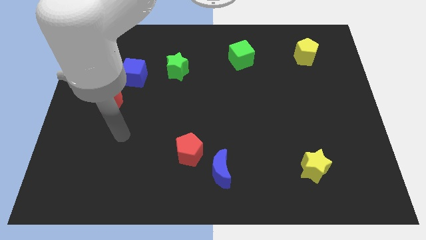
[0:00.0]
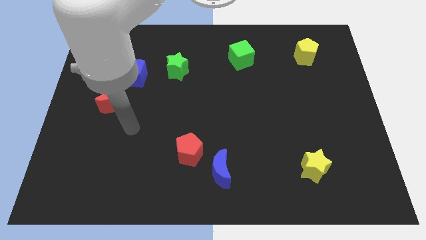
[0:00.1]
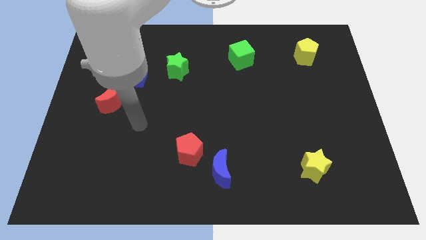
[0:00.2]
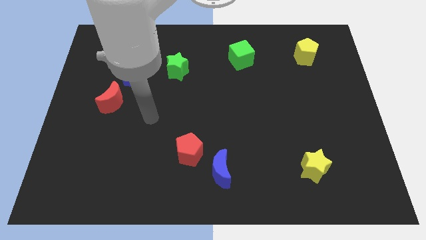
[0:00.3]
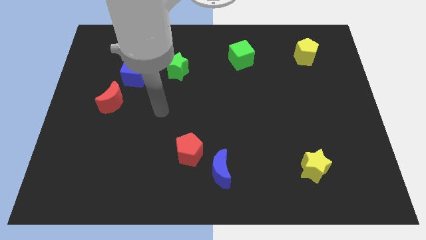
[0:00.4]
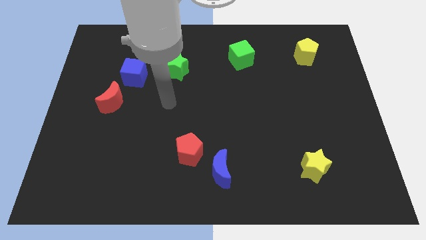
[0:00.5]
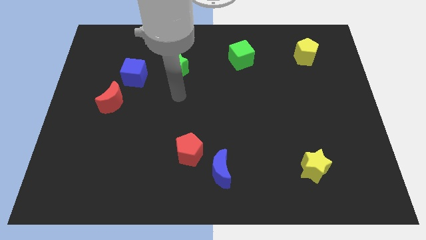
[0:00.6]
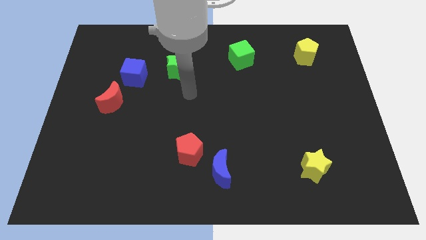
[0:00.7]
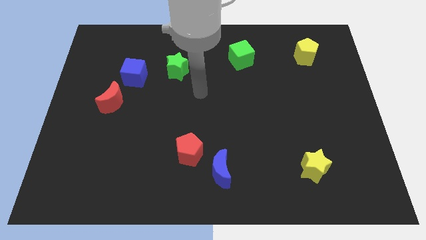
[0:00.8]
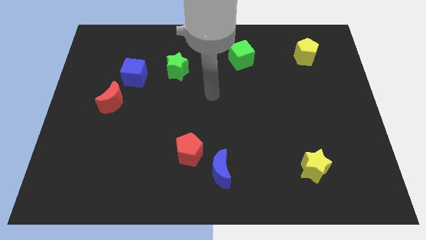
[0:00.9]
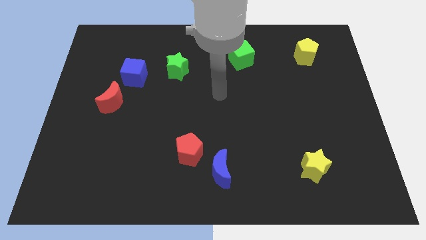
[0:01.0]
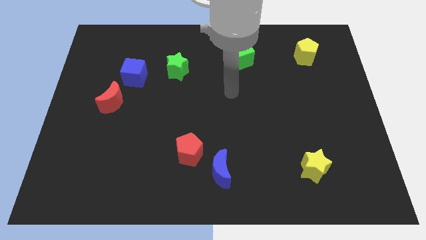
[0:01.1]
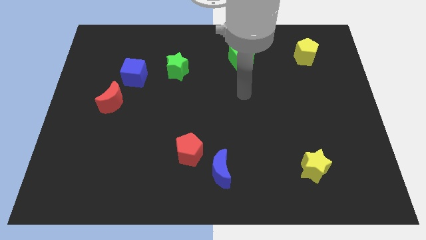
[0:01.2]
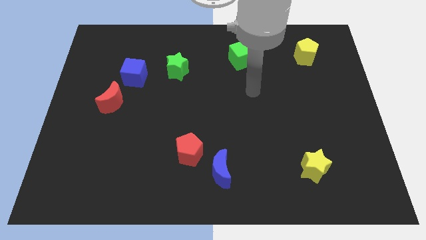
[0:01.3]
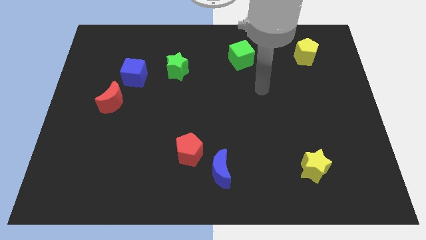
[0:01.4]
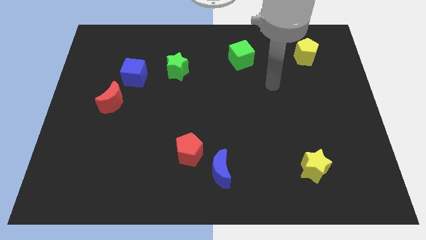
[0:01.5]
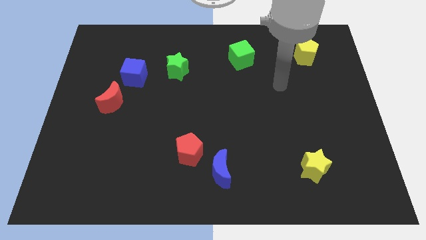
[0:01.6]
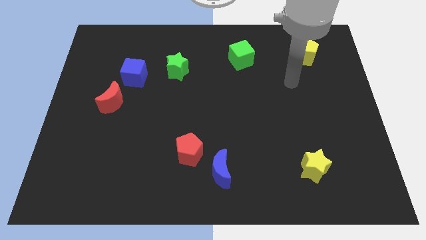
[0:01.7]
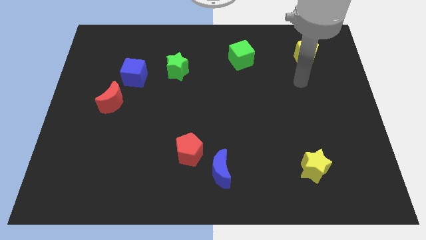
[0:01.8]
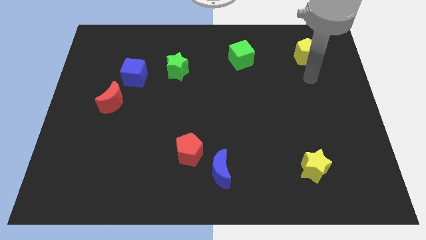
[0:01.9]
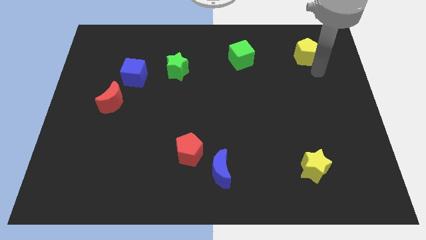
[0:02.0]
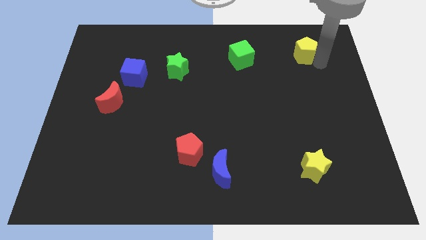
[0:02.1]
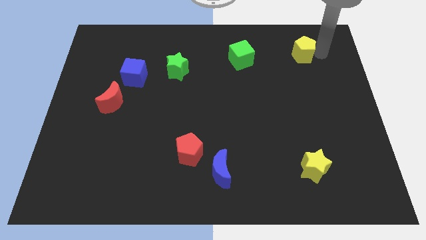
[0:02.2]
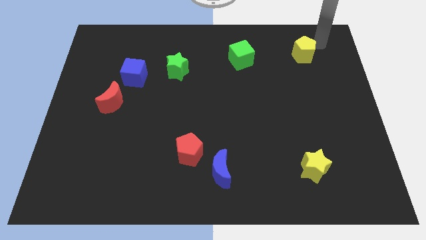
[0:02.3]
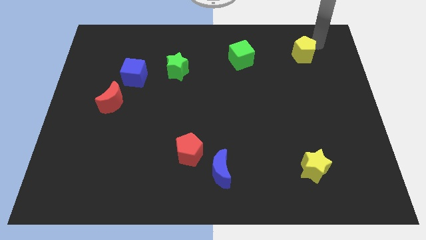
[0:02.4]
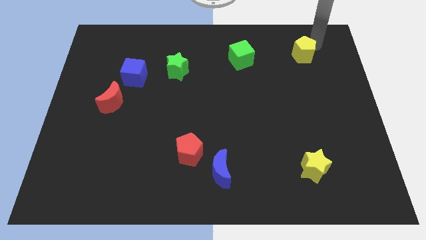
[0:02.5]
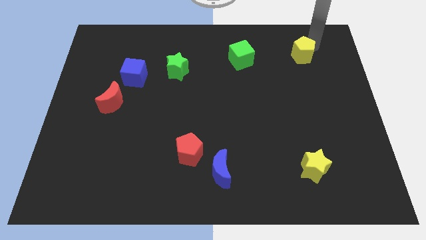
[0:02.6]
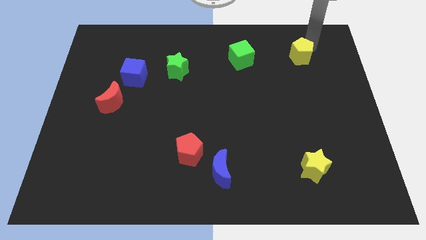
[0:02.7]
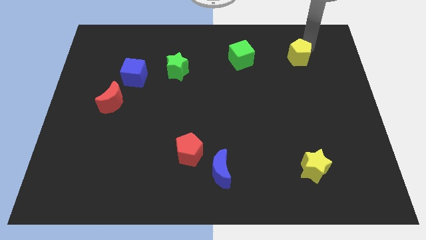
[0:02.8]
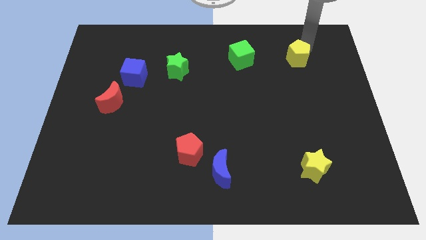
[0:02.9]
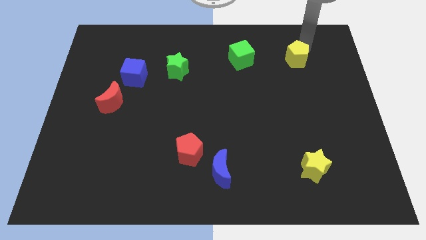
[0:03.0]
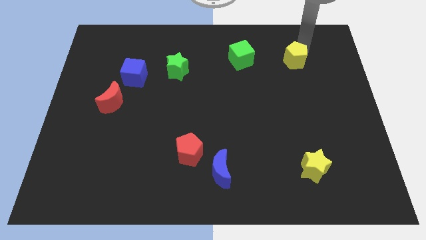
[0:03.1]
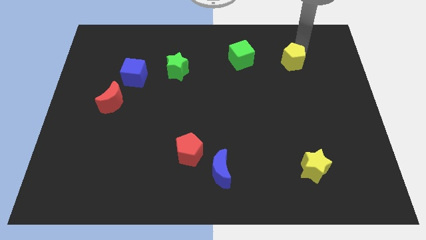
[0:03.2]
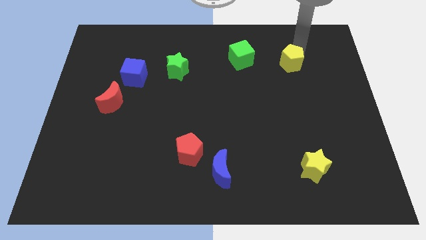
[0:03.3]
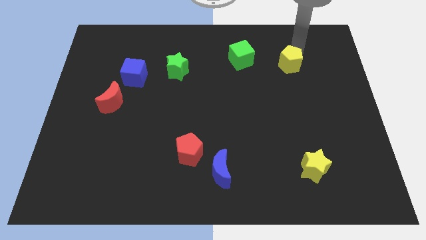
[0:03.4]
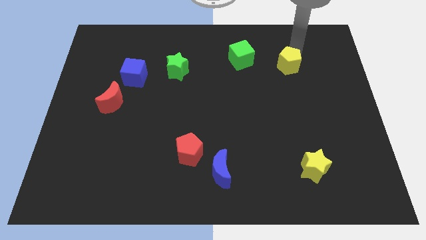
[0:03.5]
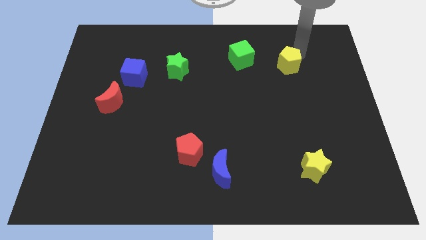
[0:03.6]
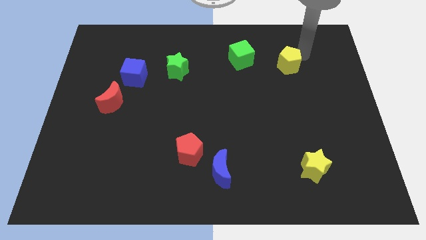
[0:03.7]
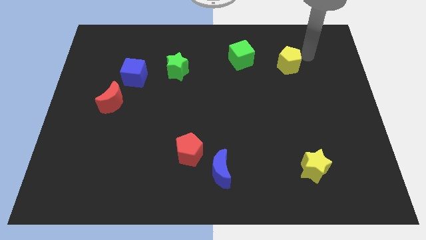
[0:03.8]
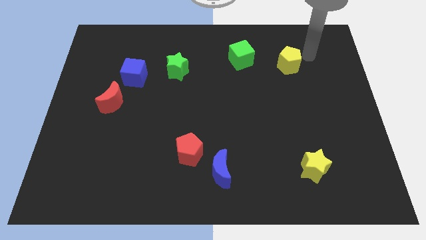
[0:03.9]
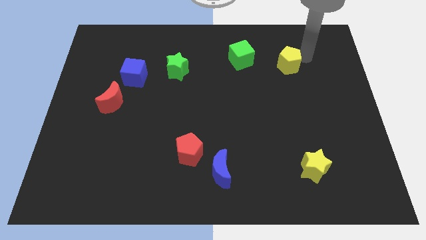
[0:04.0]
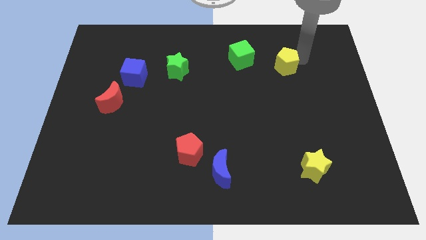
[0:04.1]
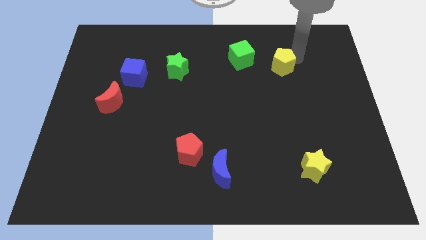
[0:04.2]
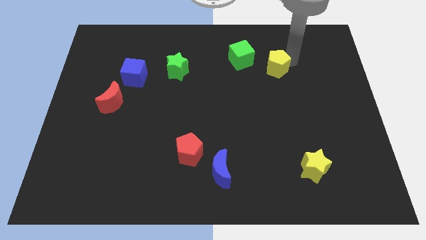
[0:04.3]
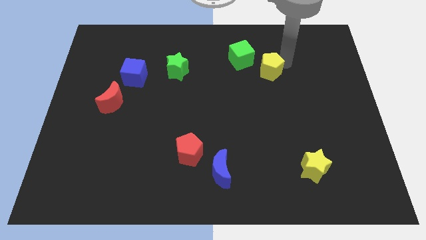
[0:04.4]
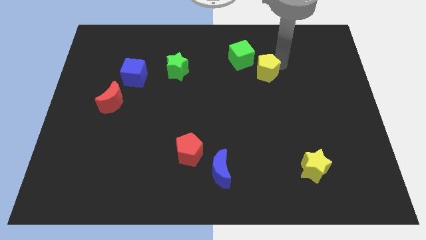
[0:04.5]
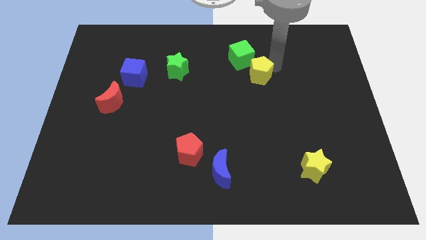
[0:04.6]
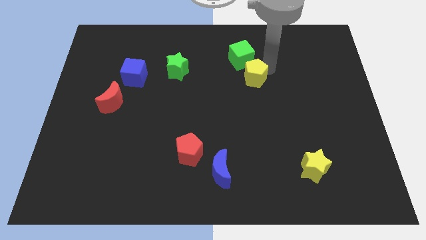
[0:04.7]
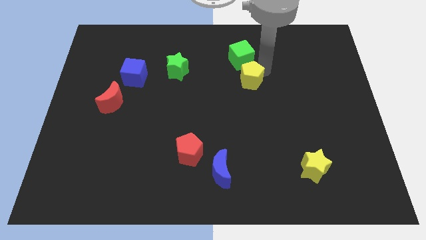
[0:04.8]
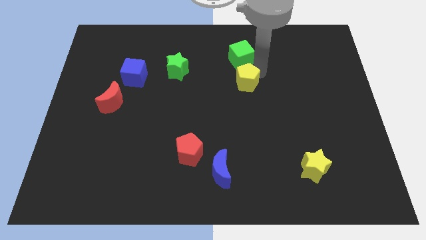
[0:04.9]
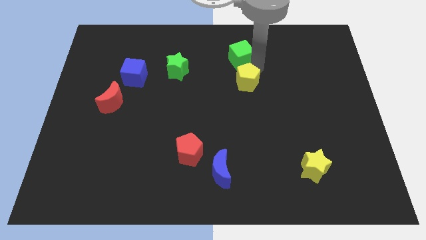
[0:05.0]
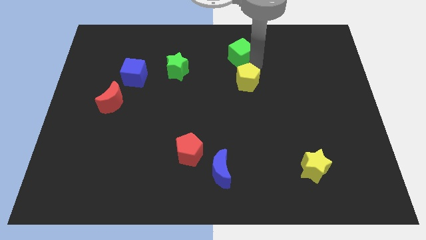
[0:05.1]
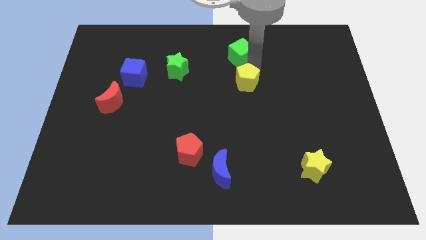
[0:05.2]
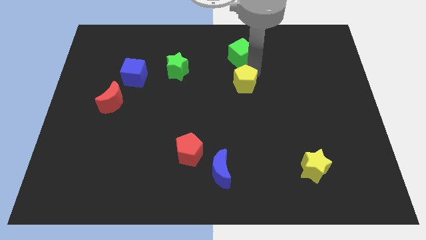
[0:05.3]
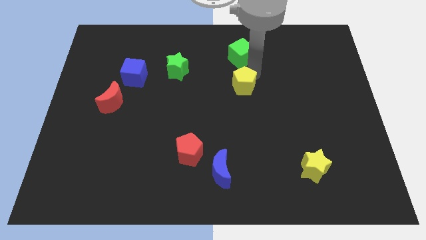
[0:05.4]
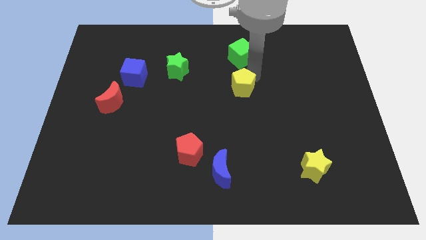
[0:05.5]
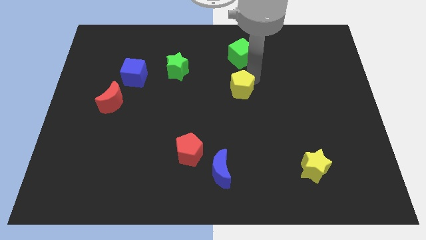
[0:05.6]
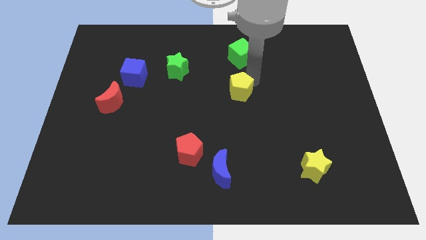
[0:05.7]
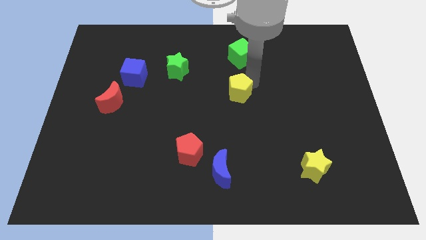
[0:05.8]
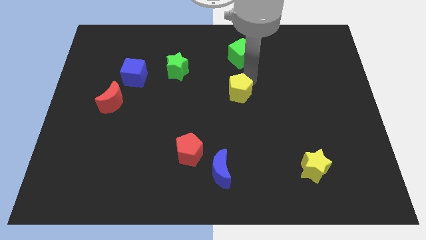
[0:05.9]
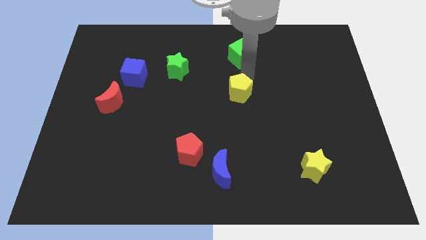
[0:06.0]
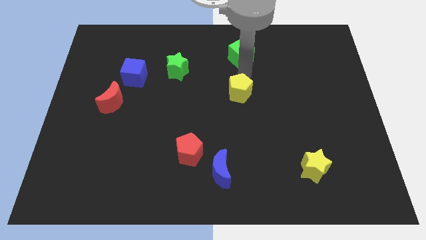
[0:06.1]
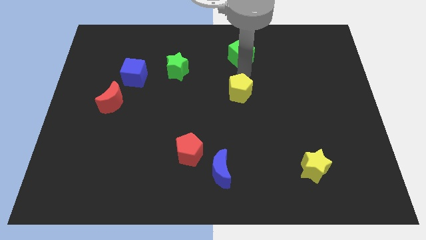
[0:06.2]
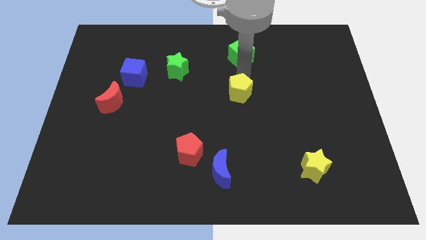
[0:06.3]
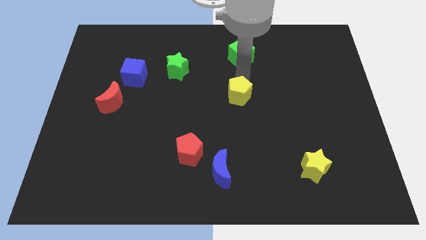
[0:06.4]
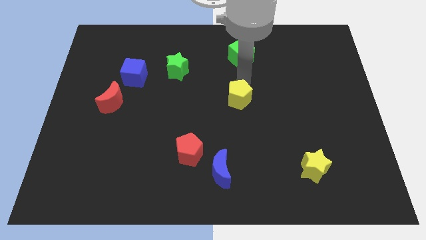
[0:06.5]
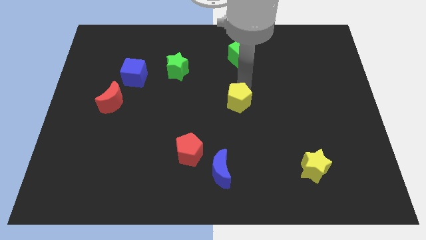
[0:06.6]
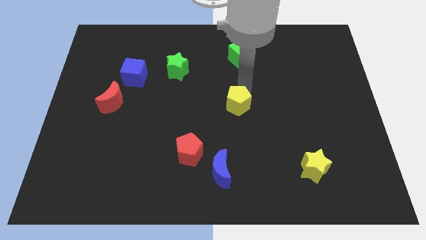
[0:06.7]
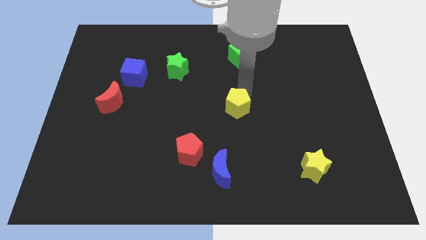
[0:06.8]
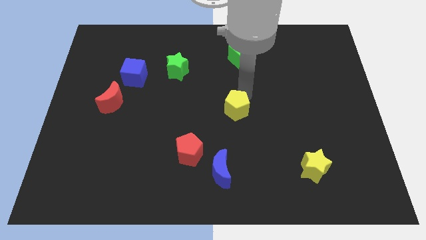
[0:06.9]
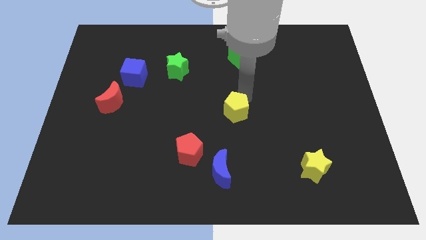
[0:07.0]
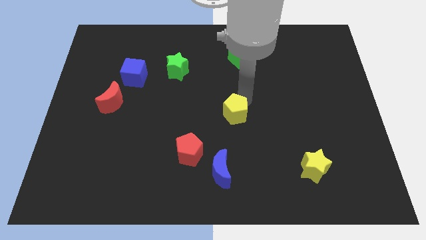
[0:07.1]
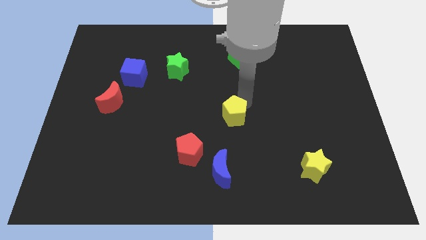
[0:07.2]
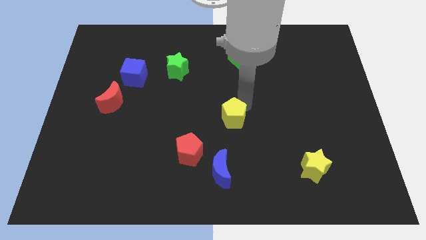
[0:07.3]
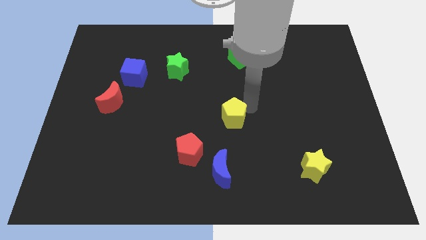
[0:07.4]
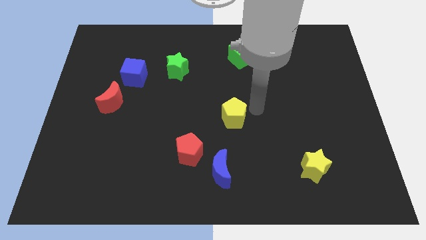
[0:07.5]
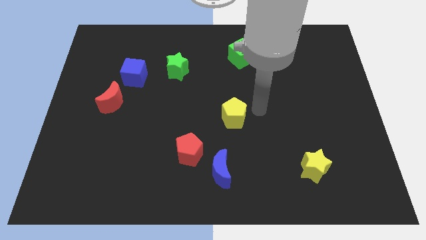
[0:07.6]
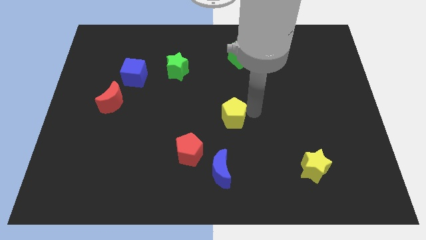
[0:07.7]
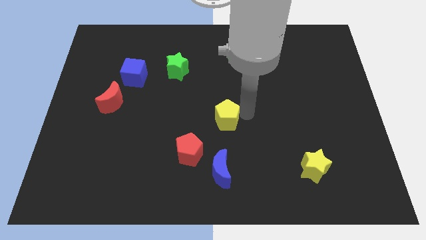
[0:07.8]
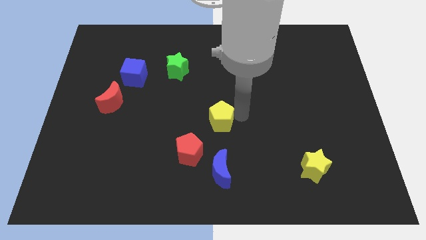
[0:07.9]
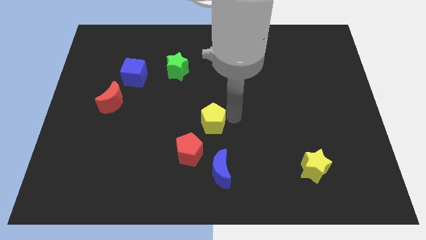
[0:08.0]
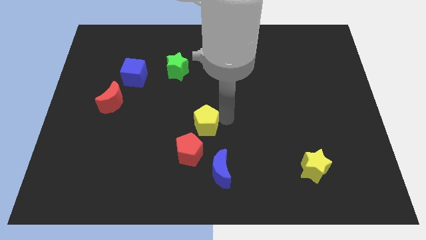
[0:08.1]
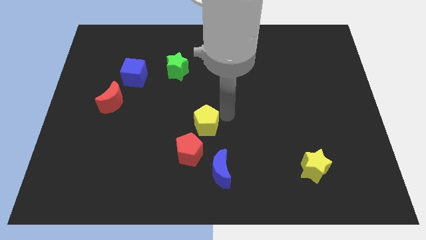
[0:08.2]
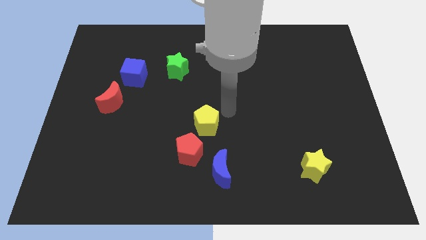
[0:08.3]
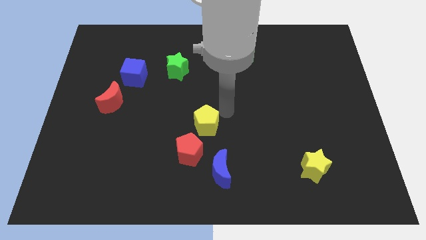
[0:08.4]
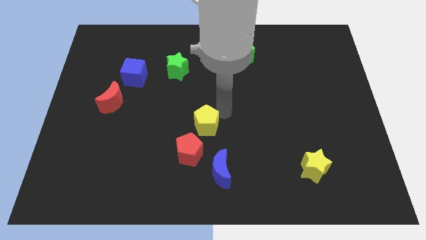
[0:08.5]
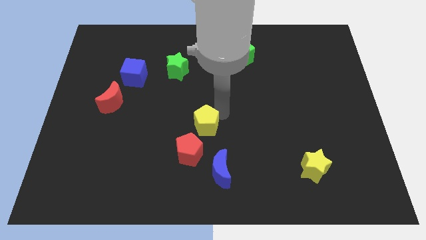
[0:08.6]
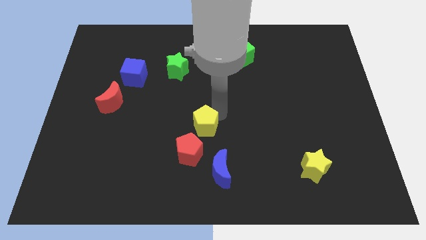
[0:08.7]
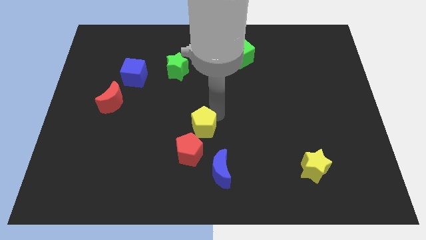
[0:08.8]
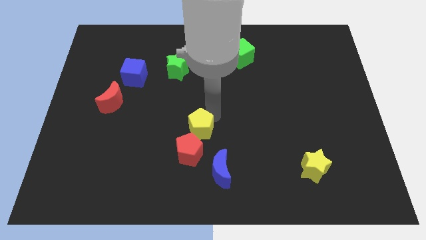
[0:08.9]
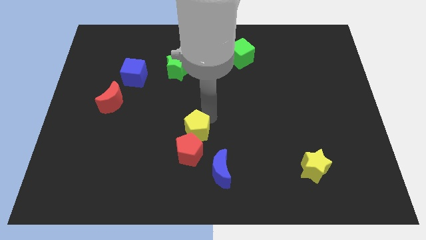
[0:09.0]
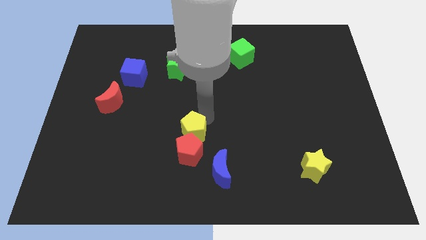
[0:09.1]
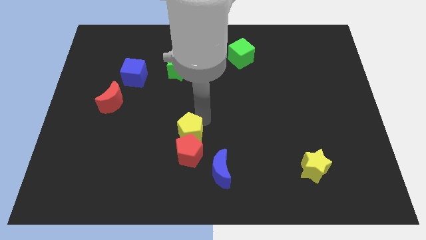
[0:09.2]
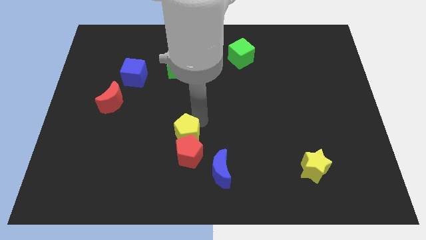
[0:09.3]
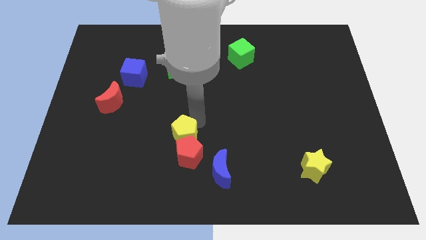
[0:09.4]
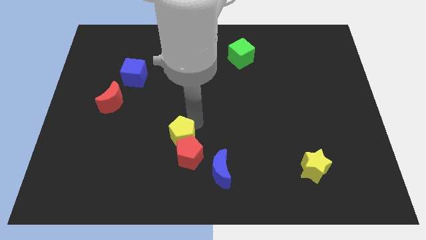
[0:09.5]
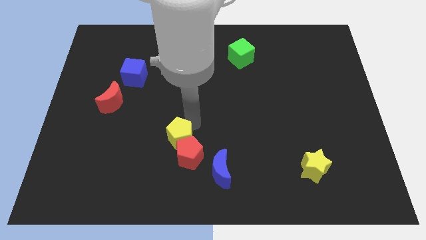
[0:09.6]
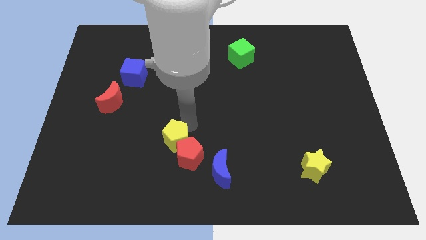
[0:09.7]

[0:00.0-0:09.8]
push the yellow pentagon to the left side of the red pentagon
